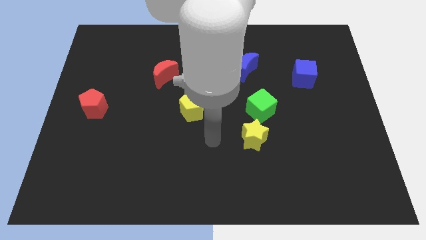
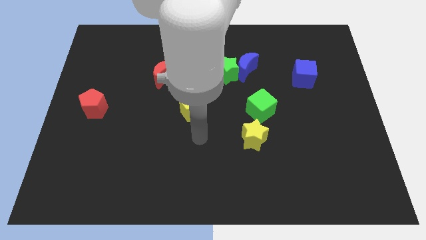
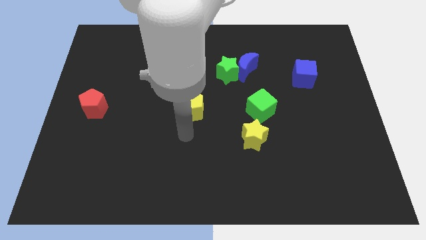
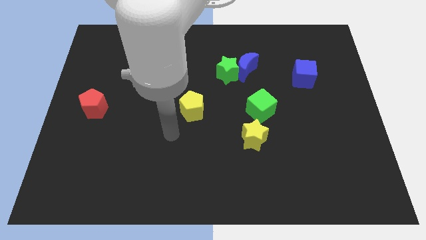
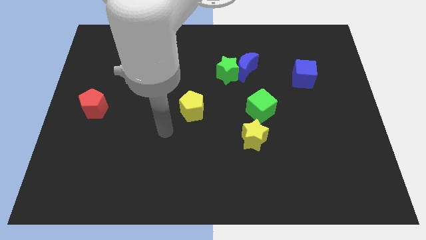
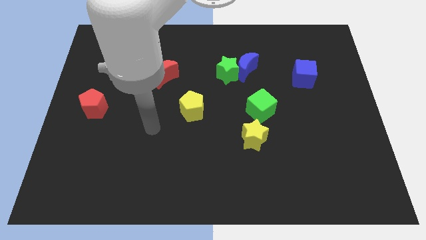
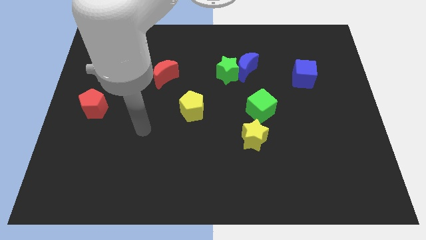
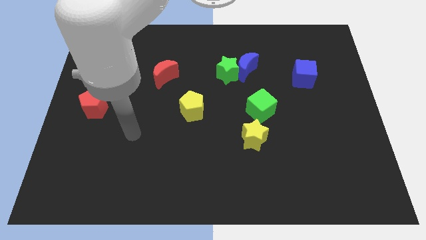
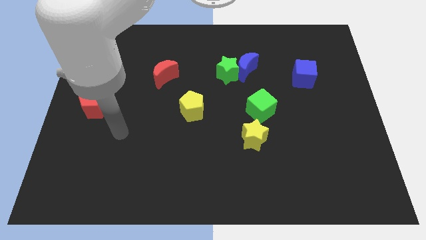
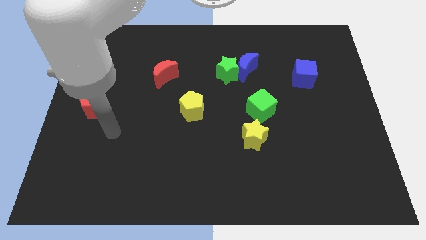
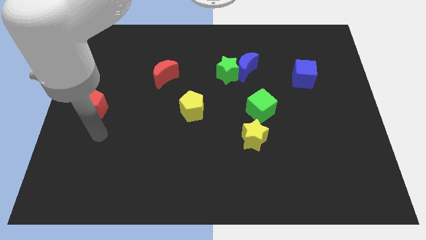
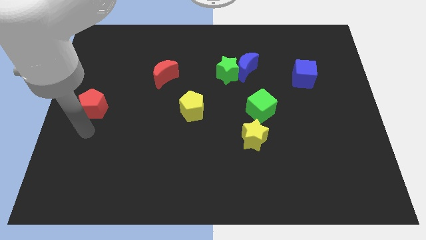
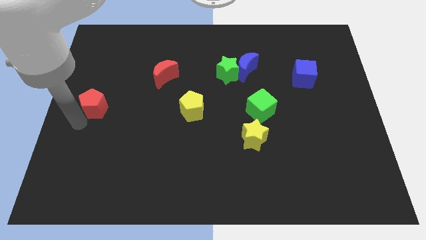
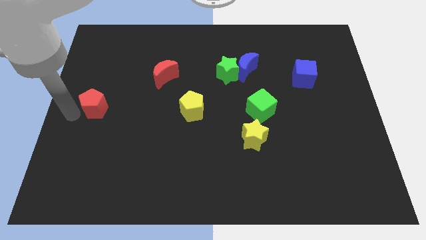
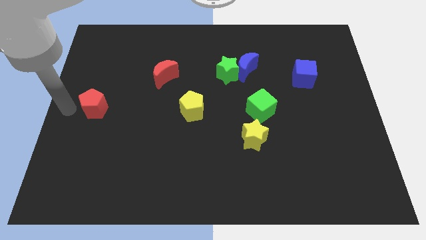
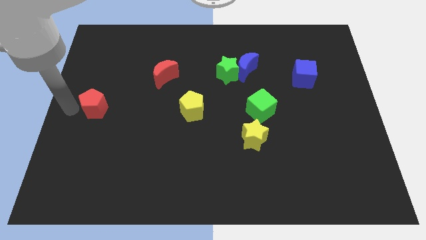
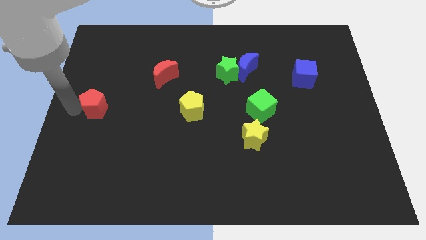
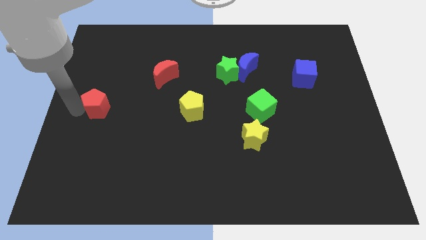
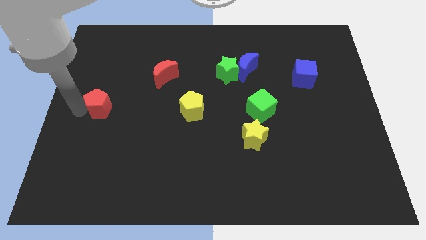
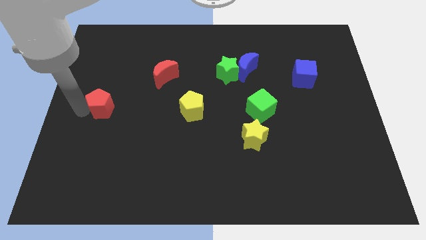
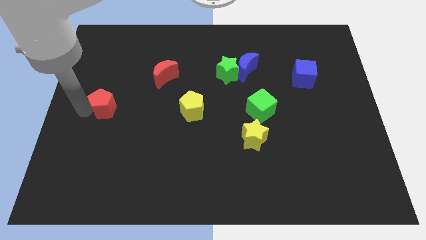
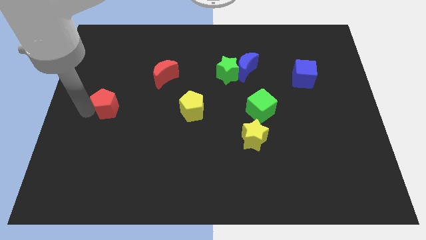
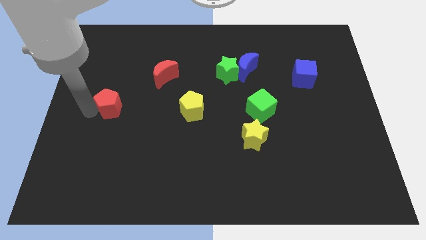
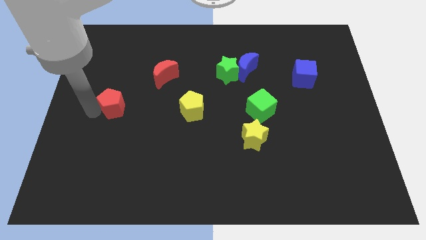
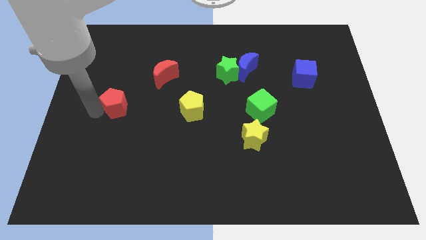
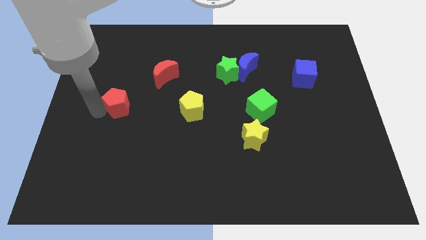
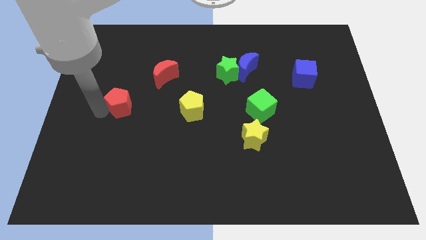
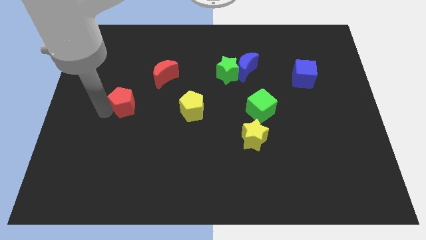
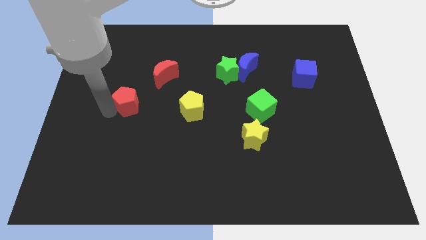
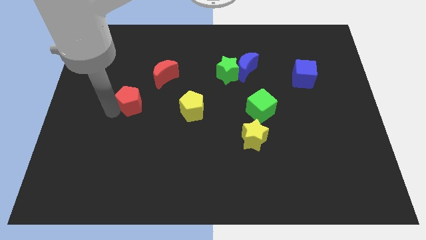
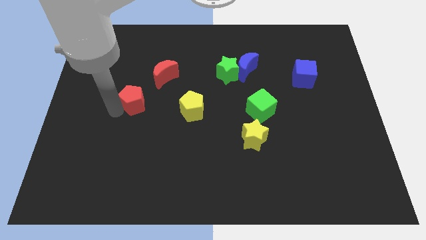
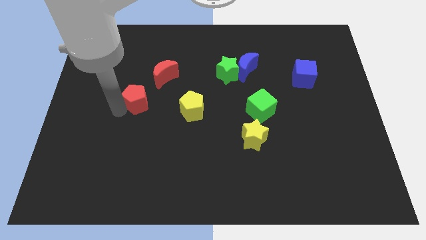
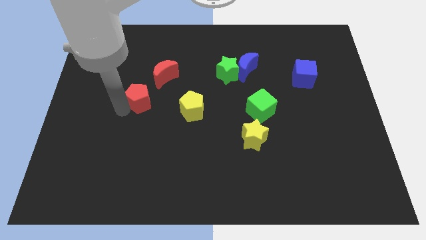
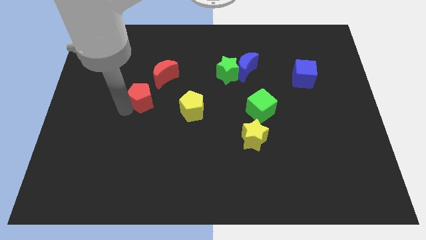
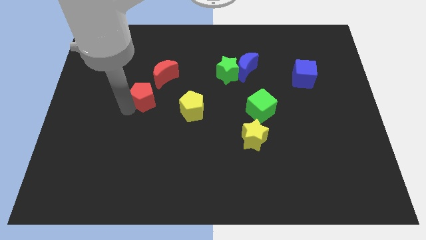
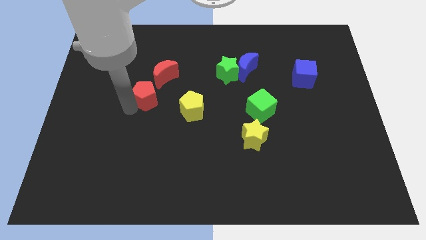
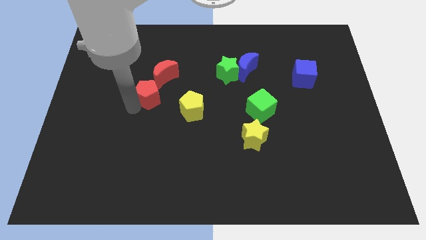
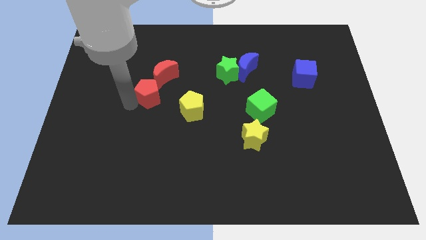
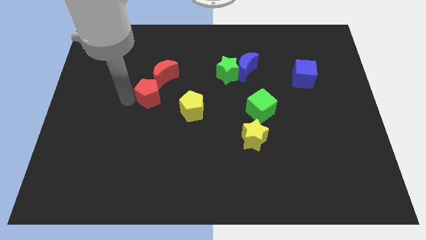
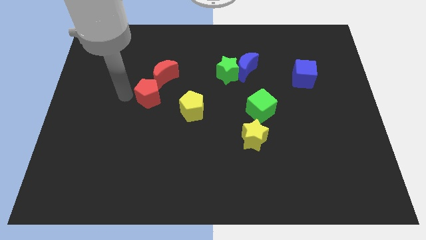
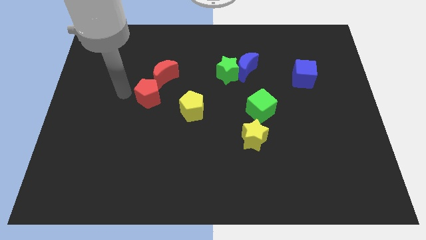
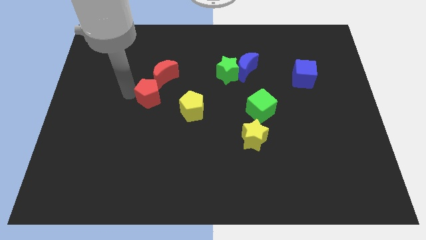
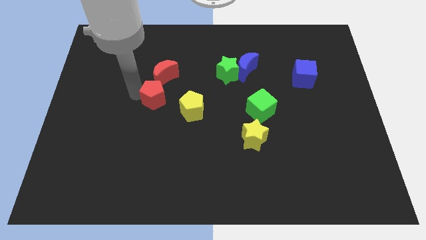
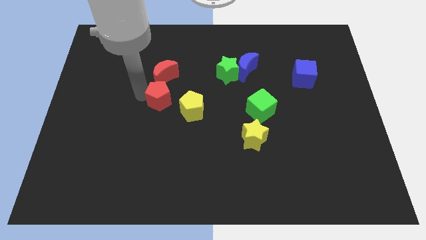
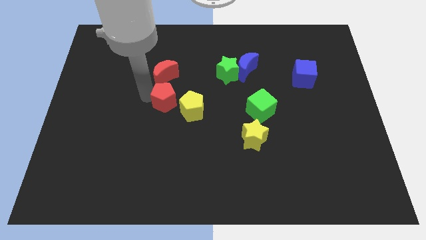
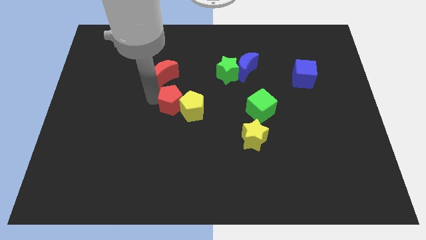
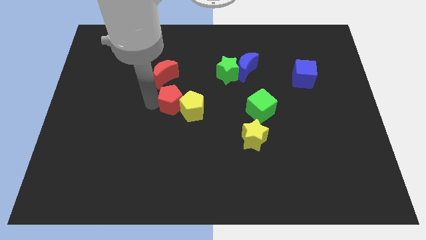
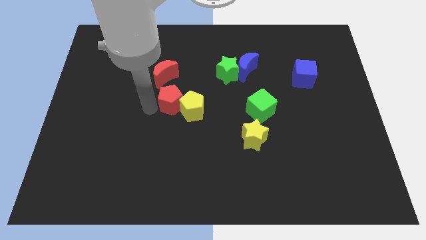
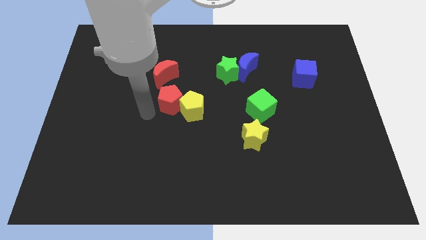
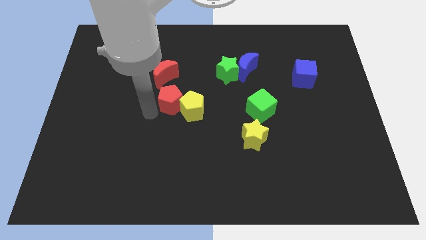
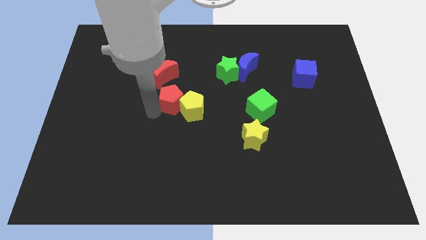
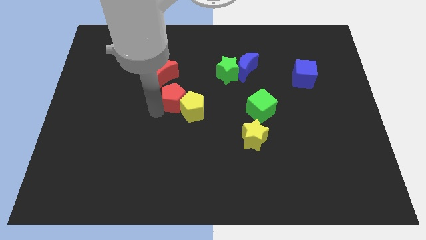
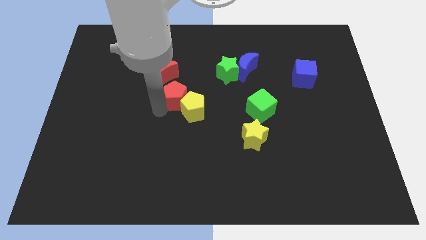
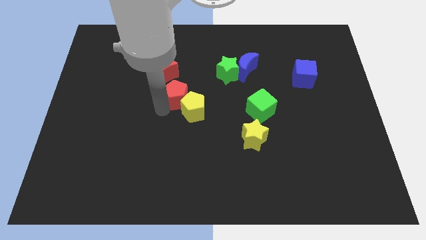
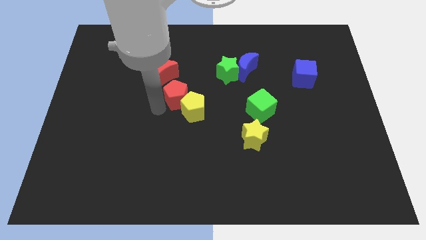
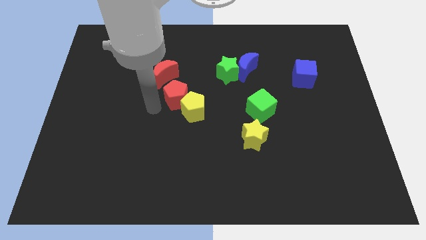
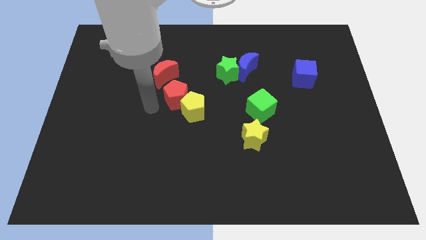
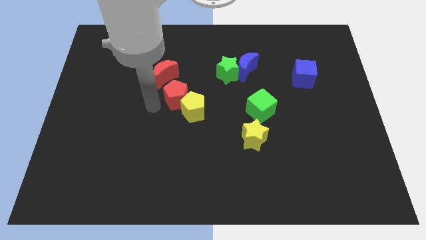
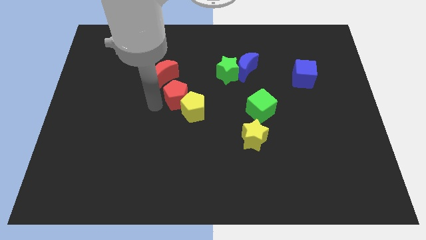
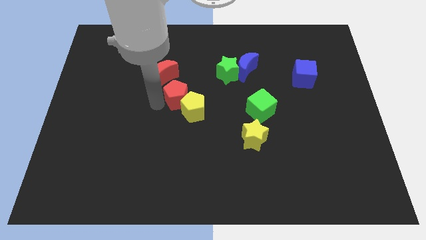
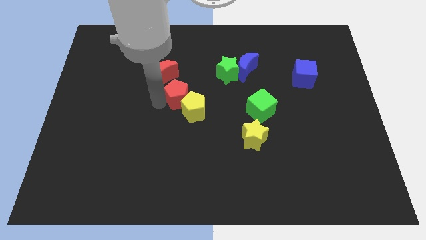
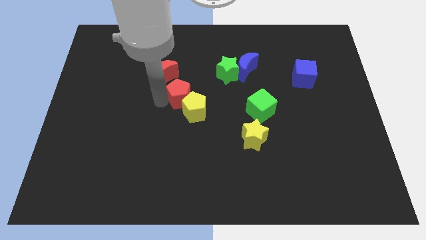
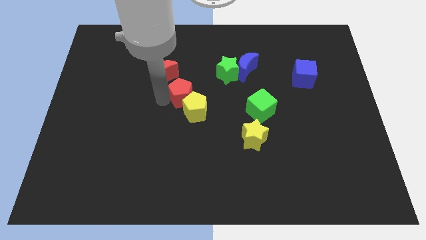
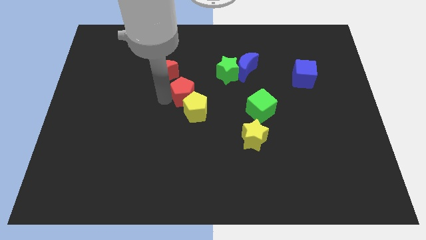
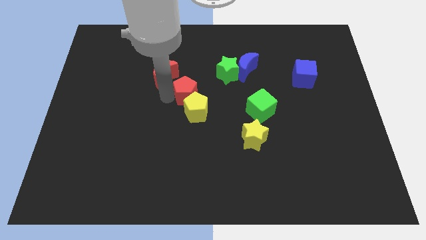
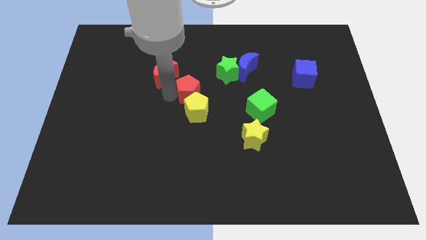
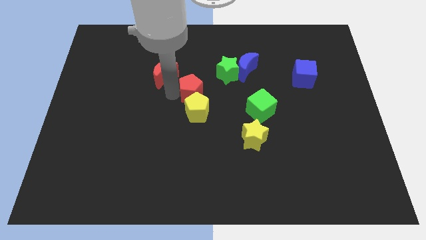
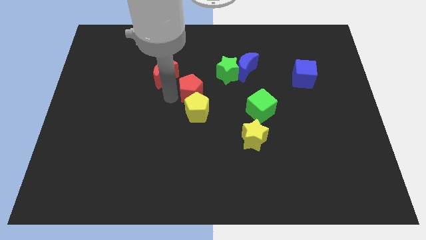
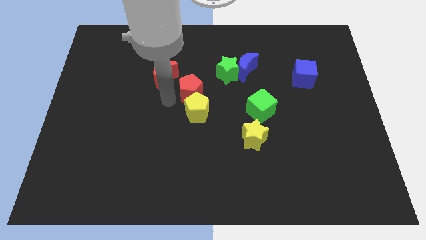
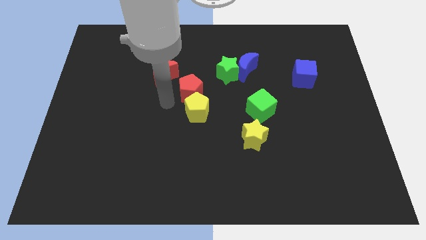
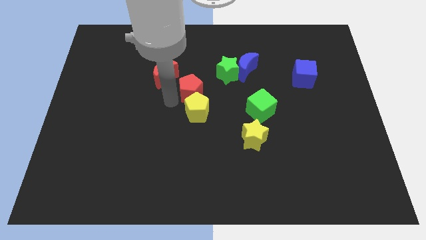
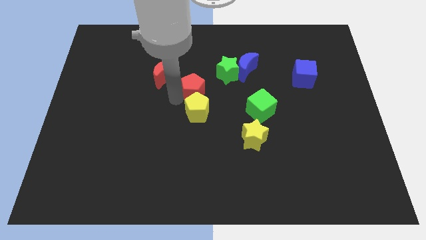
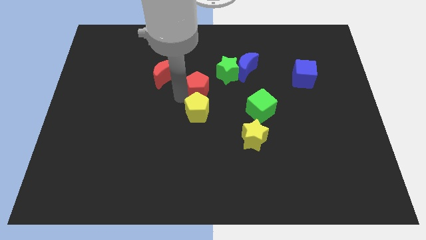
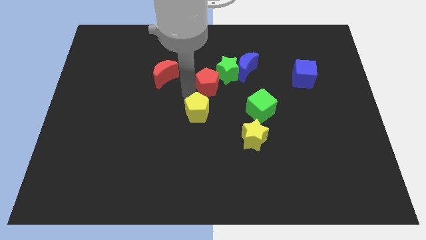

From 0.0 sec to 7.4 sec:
put the red pentagon towards the green star
